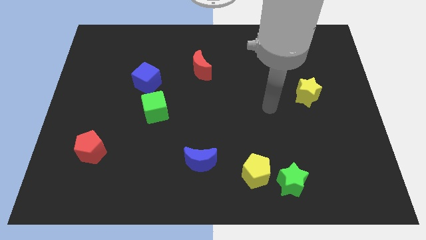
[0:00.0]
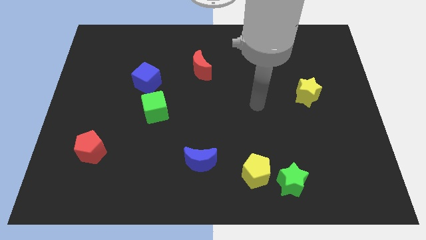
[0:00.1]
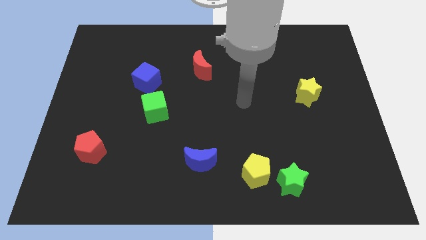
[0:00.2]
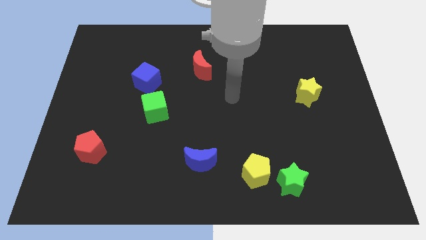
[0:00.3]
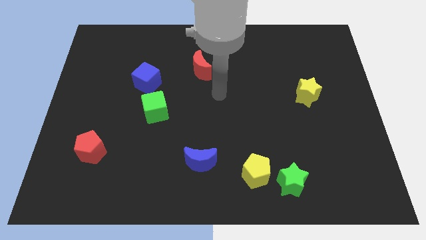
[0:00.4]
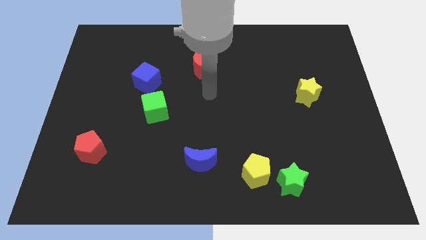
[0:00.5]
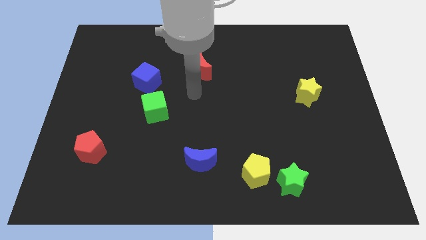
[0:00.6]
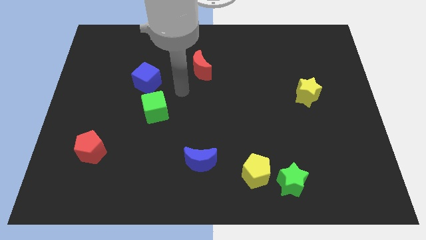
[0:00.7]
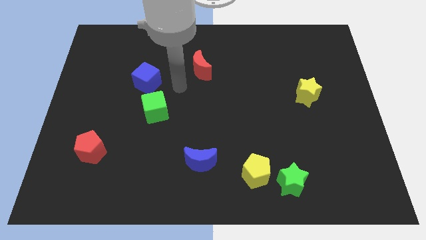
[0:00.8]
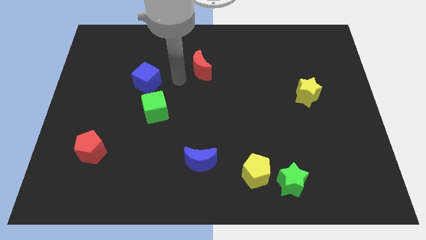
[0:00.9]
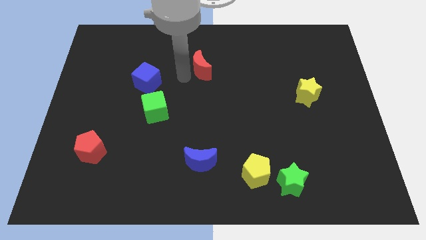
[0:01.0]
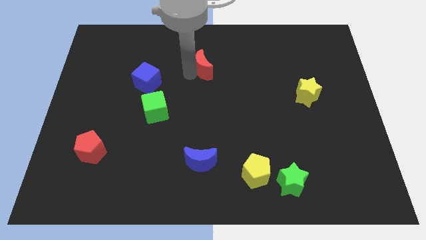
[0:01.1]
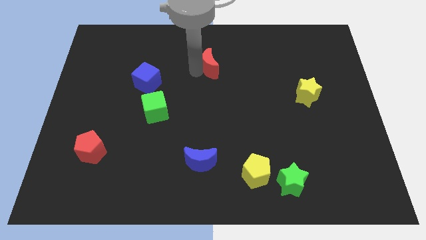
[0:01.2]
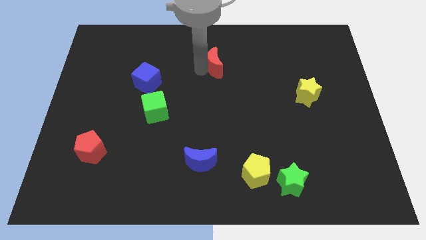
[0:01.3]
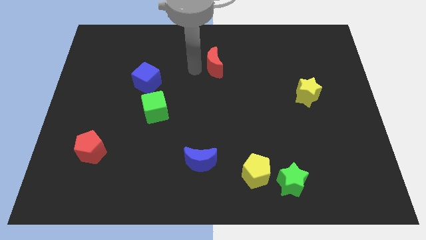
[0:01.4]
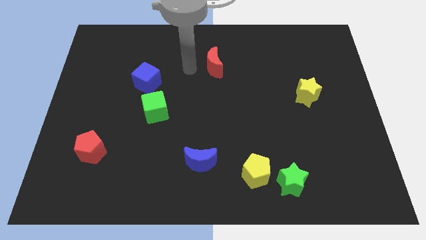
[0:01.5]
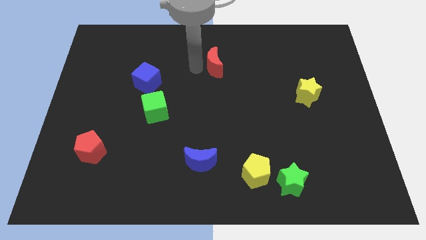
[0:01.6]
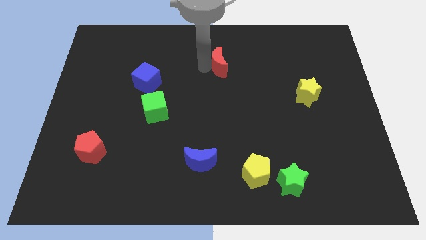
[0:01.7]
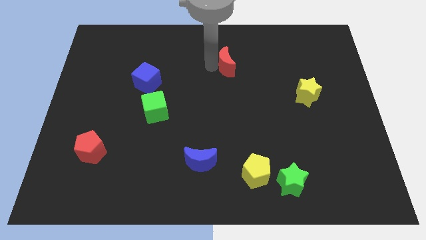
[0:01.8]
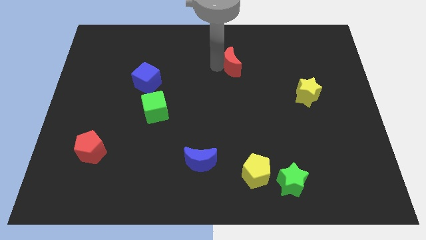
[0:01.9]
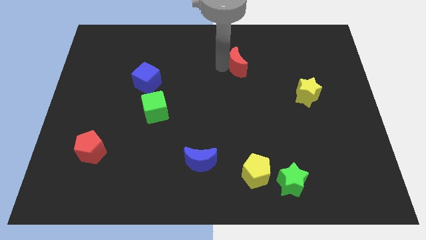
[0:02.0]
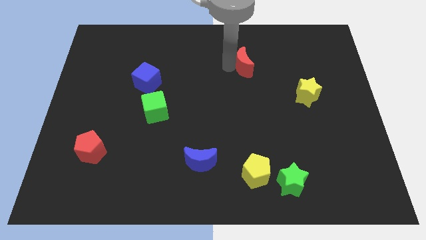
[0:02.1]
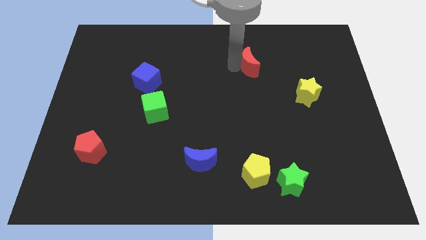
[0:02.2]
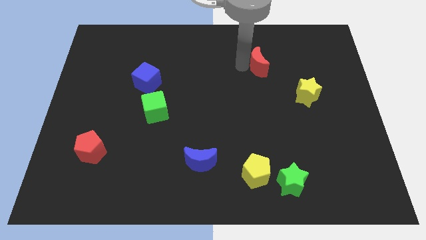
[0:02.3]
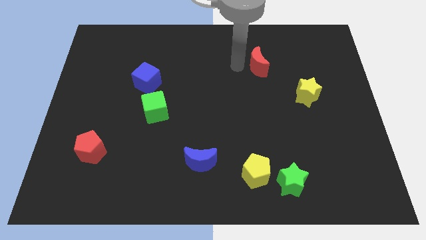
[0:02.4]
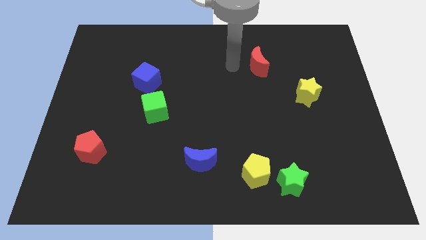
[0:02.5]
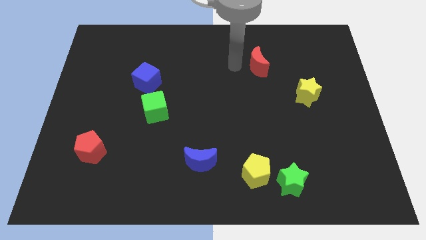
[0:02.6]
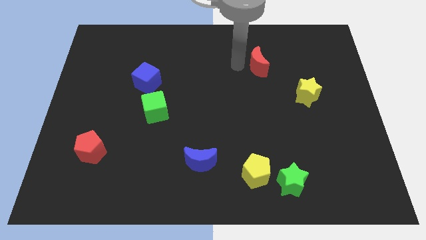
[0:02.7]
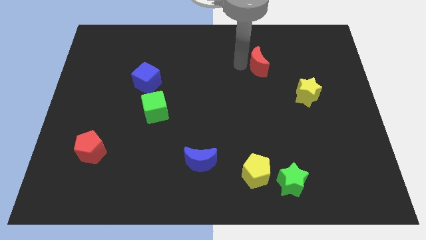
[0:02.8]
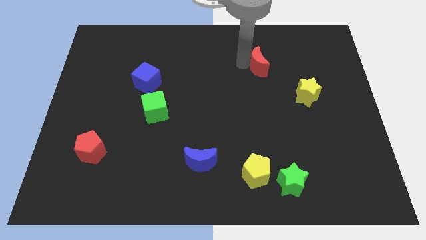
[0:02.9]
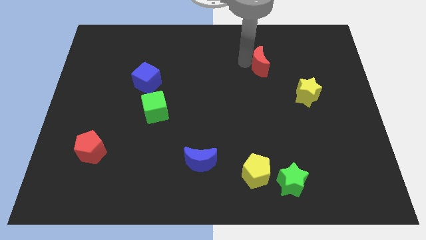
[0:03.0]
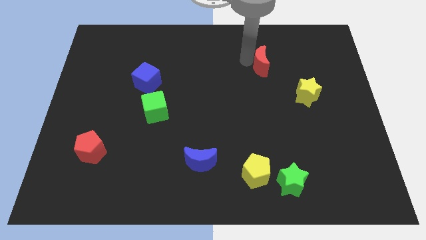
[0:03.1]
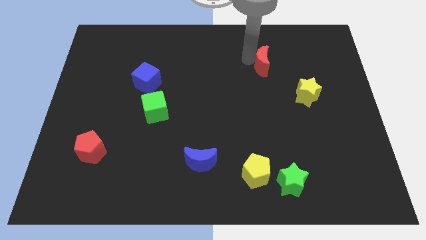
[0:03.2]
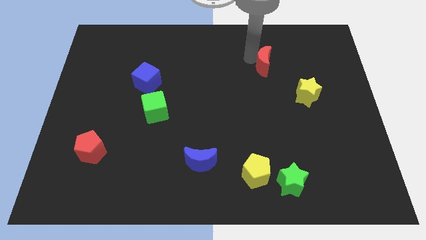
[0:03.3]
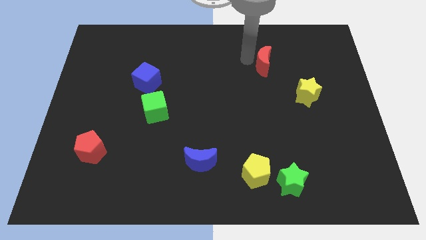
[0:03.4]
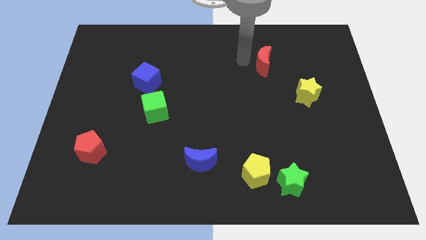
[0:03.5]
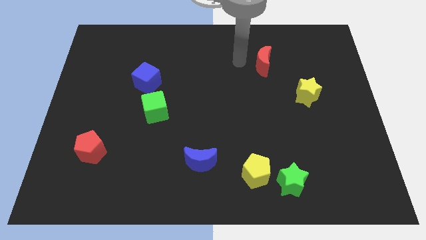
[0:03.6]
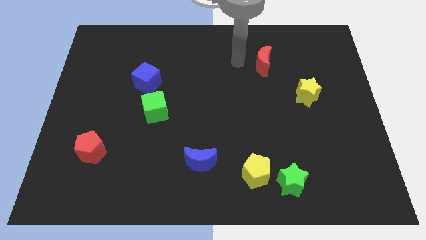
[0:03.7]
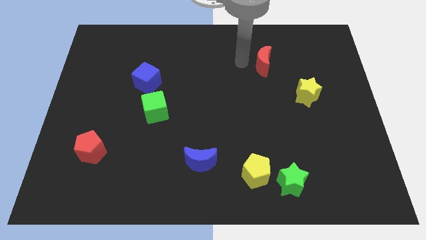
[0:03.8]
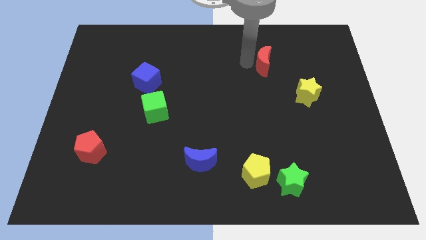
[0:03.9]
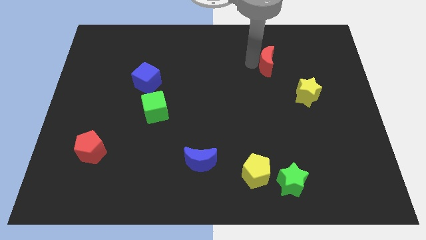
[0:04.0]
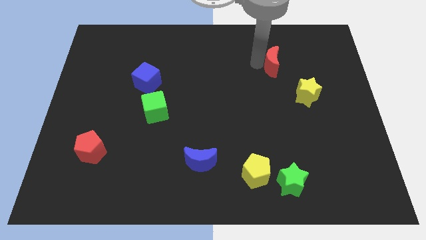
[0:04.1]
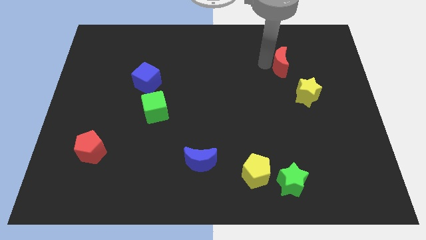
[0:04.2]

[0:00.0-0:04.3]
move the red moon right

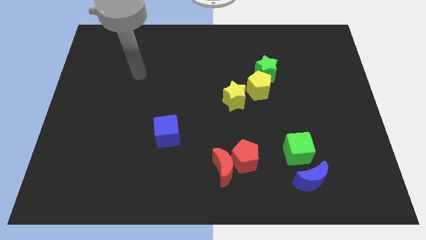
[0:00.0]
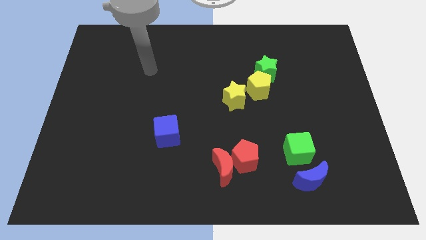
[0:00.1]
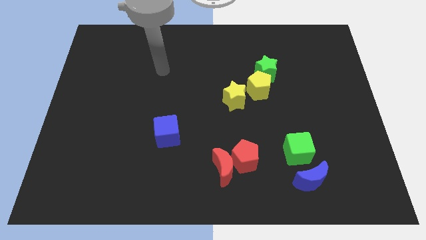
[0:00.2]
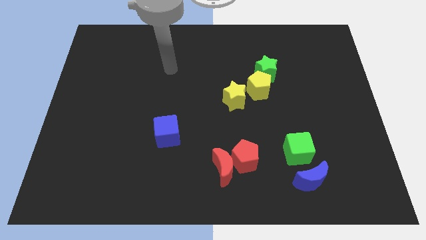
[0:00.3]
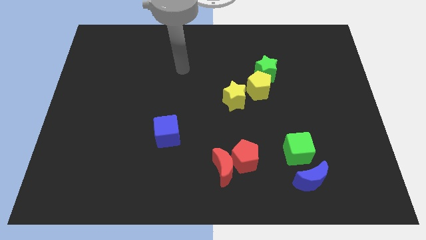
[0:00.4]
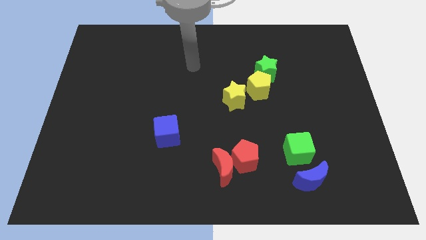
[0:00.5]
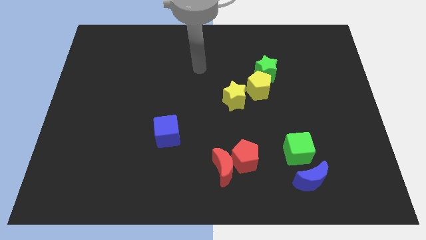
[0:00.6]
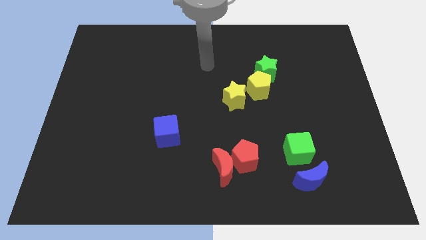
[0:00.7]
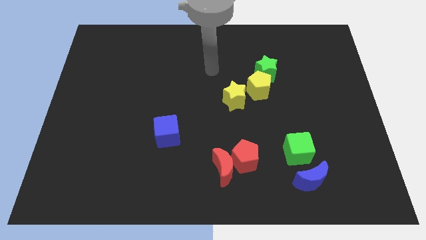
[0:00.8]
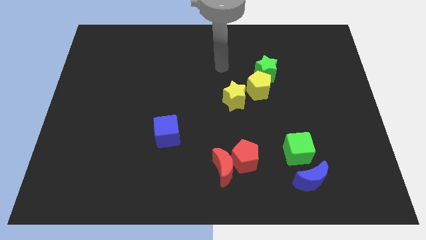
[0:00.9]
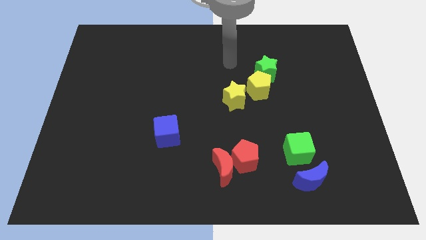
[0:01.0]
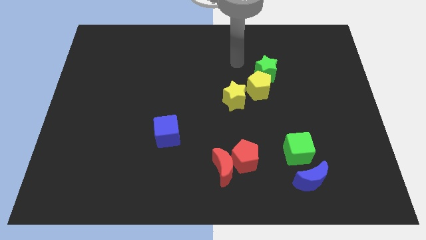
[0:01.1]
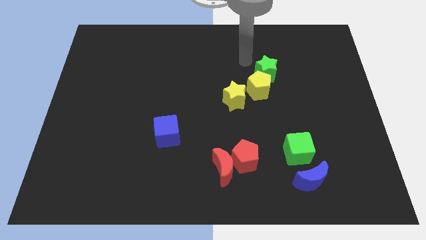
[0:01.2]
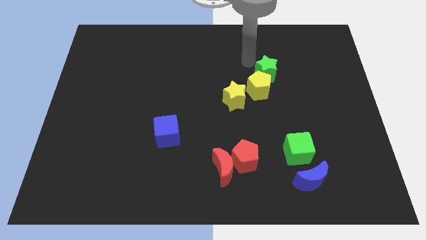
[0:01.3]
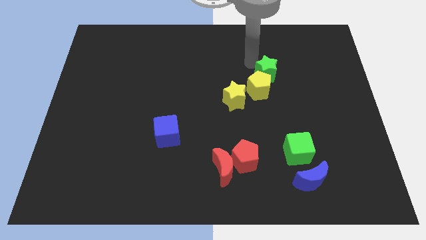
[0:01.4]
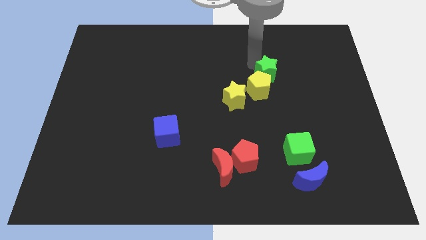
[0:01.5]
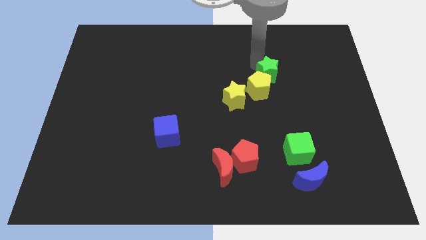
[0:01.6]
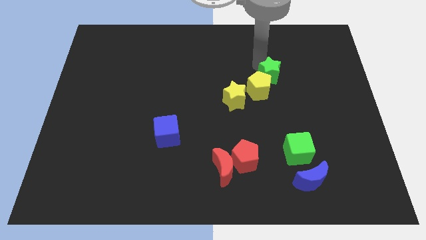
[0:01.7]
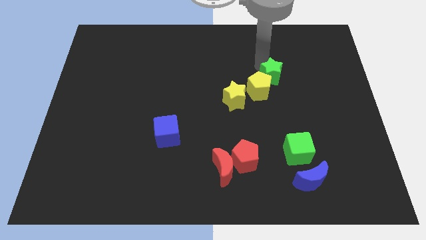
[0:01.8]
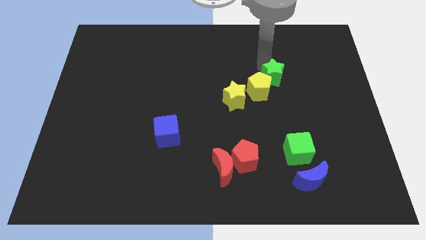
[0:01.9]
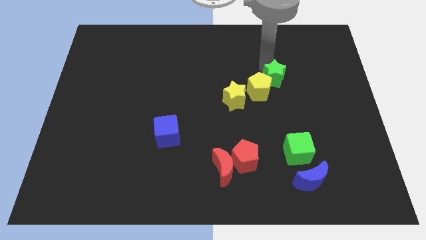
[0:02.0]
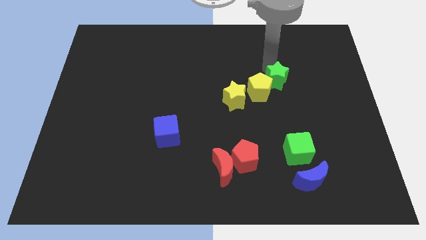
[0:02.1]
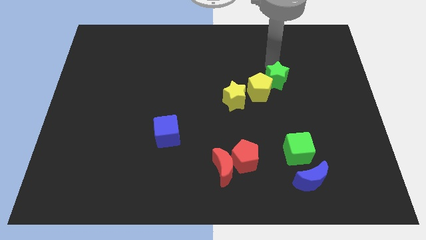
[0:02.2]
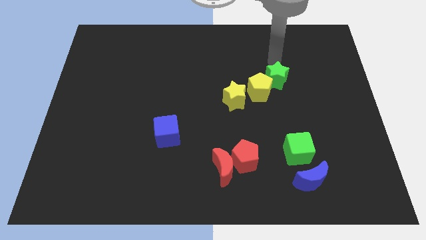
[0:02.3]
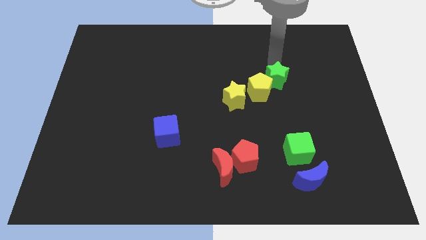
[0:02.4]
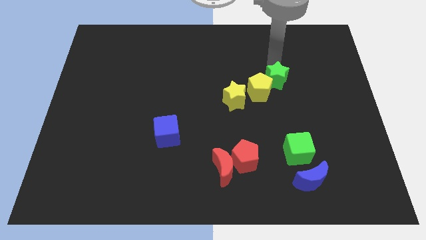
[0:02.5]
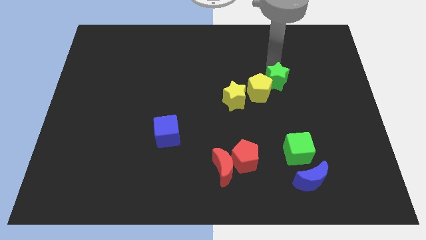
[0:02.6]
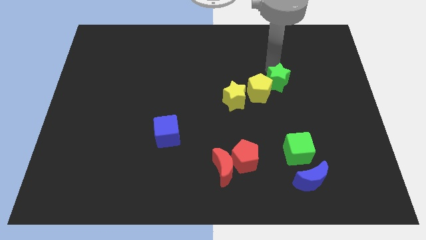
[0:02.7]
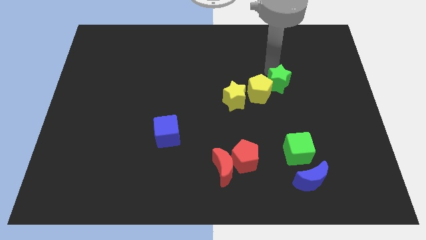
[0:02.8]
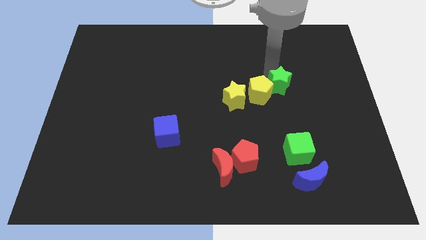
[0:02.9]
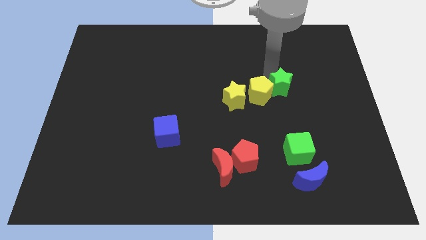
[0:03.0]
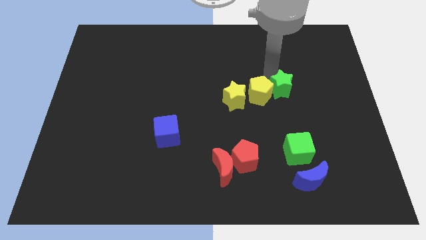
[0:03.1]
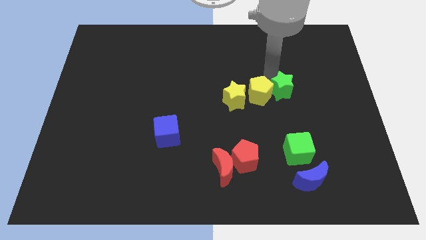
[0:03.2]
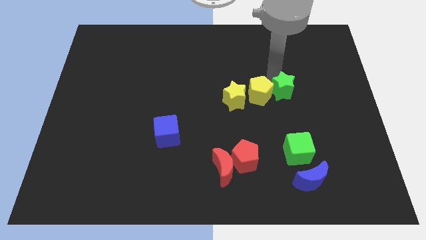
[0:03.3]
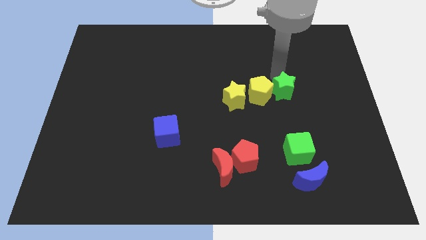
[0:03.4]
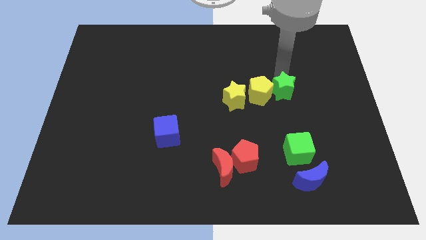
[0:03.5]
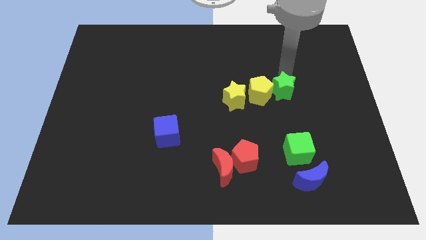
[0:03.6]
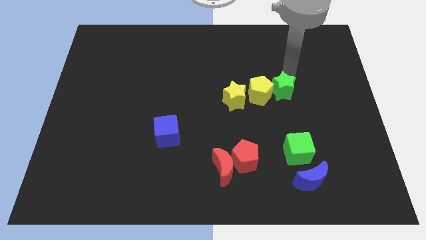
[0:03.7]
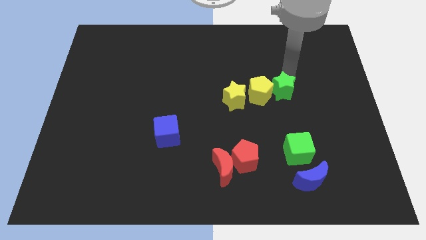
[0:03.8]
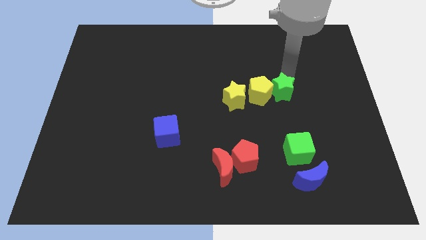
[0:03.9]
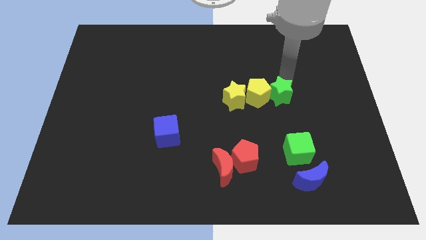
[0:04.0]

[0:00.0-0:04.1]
slightly push the green star downwards
